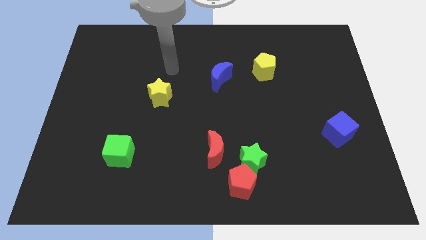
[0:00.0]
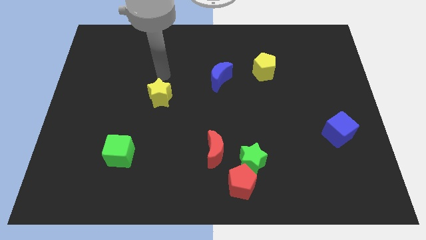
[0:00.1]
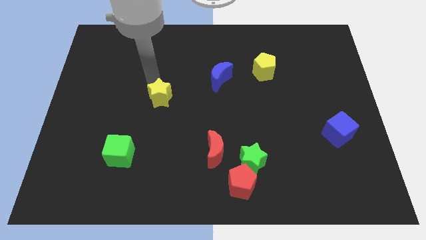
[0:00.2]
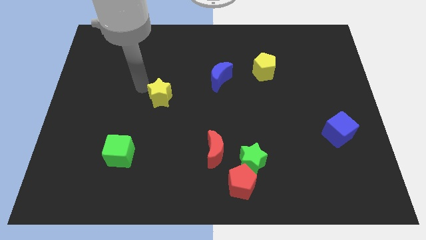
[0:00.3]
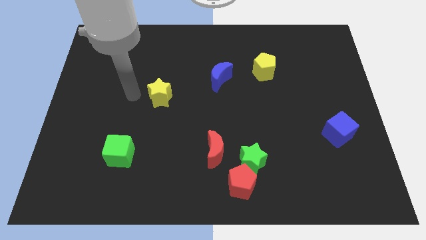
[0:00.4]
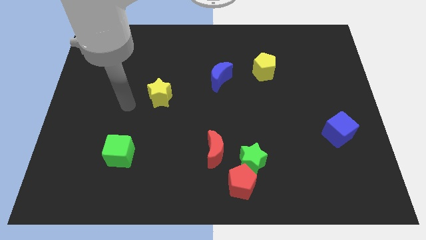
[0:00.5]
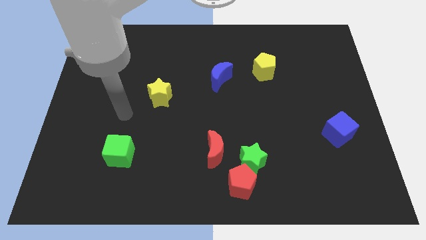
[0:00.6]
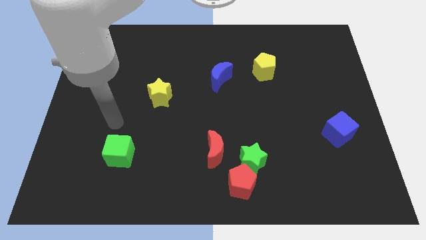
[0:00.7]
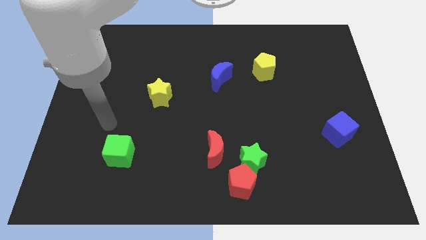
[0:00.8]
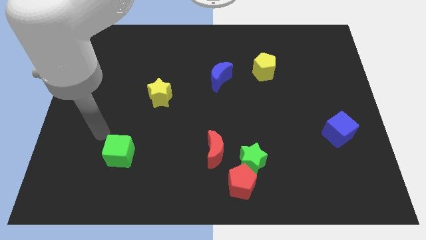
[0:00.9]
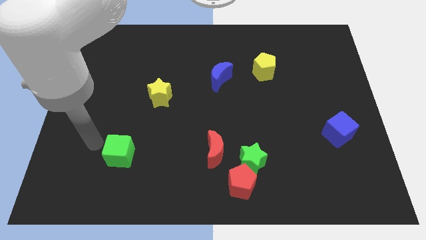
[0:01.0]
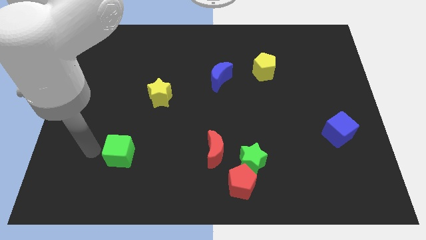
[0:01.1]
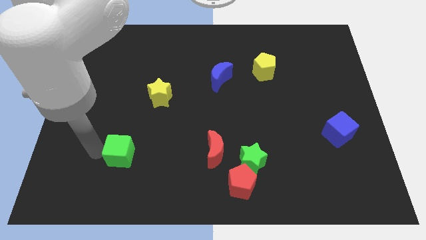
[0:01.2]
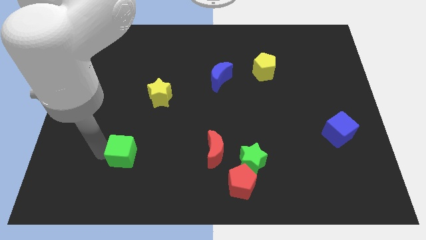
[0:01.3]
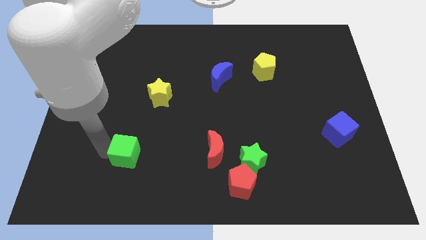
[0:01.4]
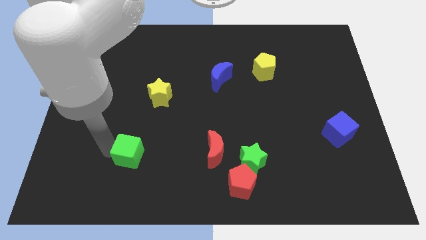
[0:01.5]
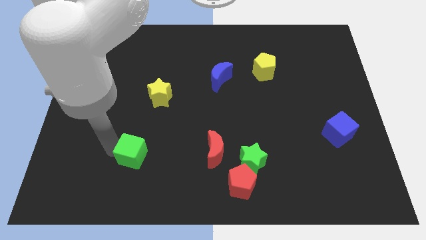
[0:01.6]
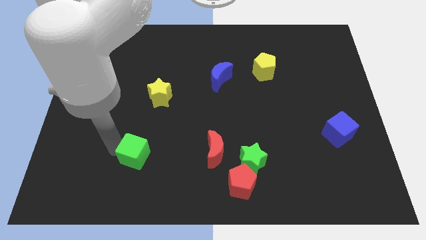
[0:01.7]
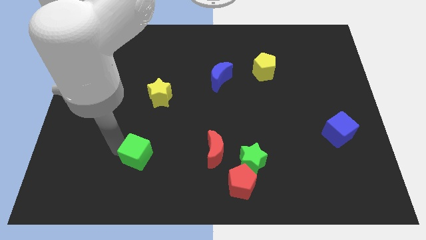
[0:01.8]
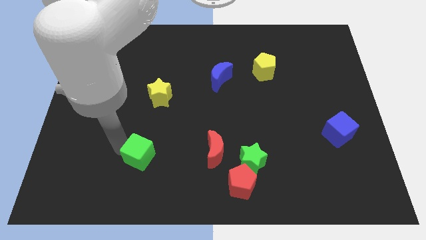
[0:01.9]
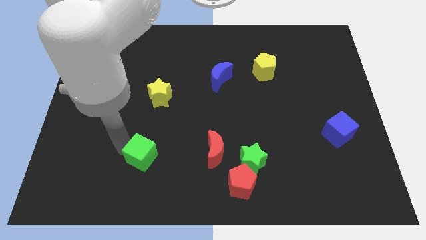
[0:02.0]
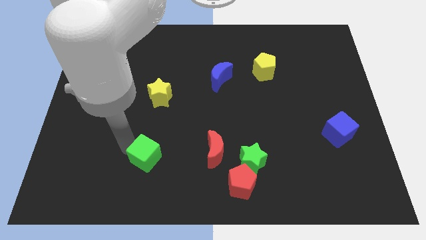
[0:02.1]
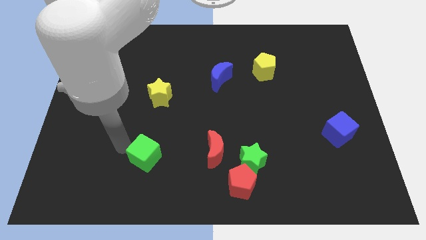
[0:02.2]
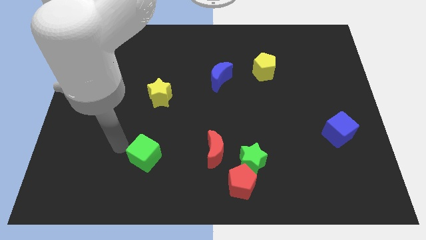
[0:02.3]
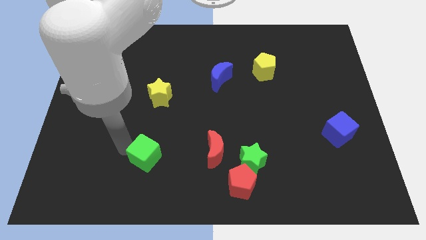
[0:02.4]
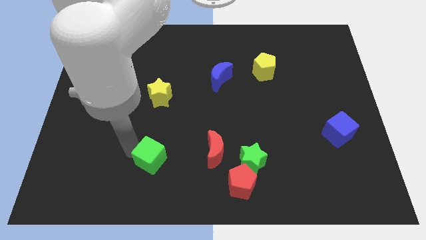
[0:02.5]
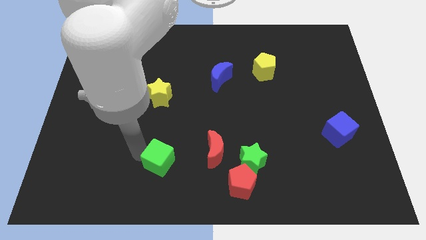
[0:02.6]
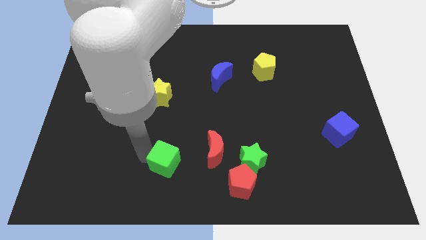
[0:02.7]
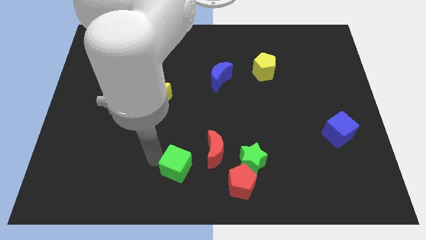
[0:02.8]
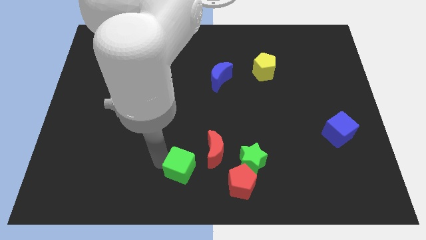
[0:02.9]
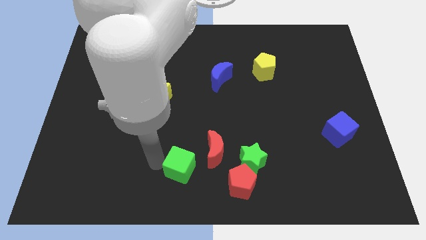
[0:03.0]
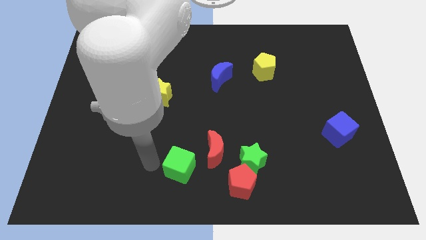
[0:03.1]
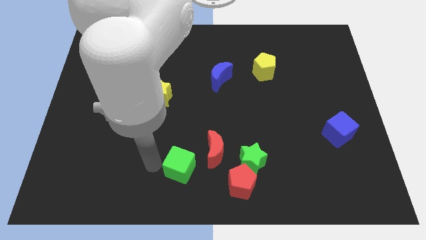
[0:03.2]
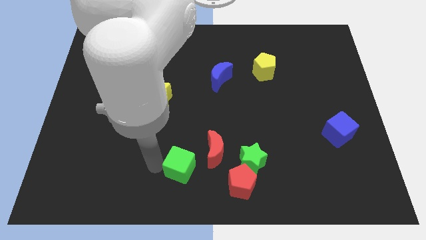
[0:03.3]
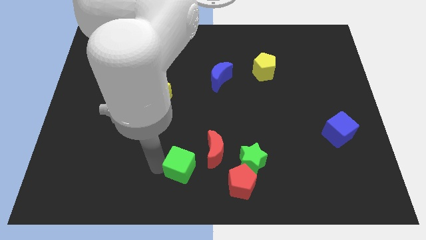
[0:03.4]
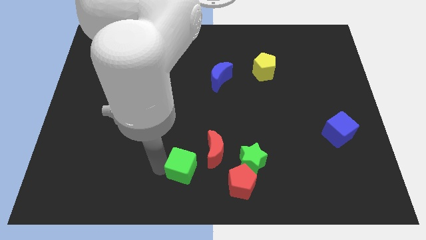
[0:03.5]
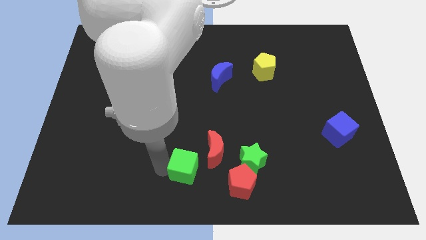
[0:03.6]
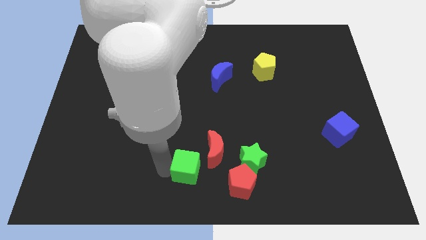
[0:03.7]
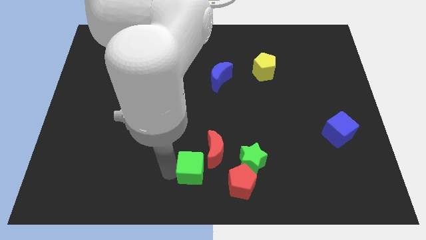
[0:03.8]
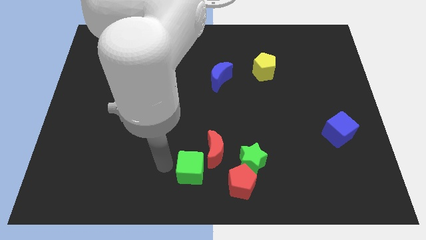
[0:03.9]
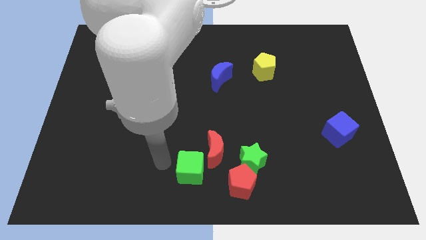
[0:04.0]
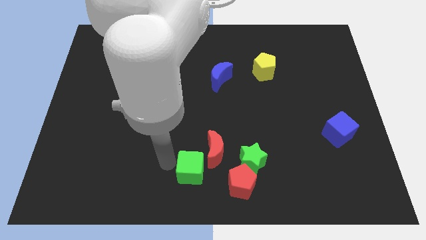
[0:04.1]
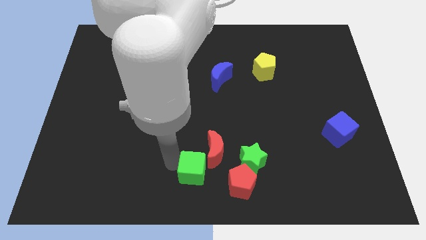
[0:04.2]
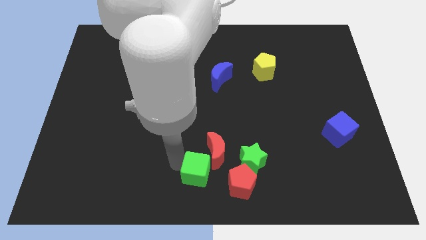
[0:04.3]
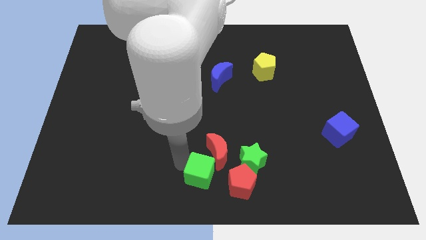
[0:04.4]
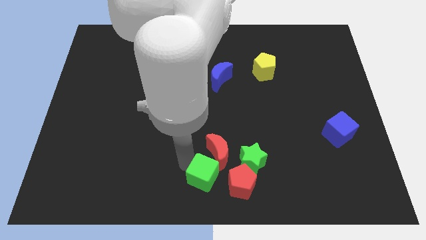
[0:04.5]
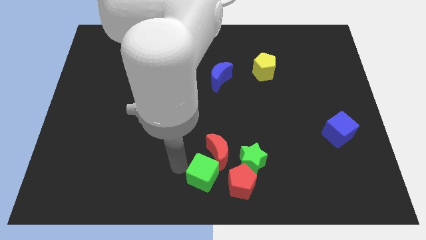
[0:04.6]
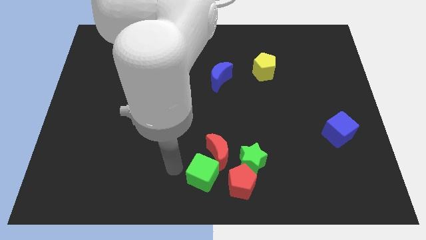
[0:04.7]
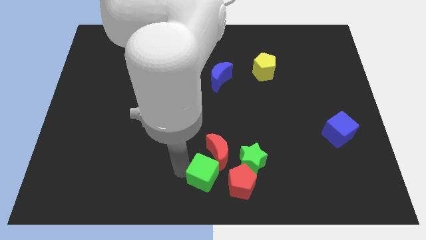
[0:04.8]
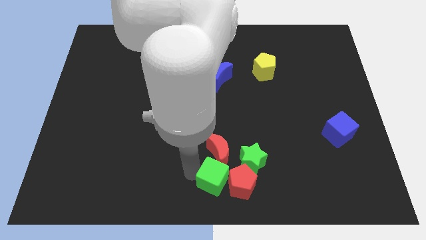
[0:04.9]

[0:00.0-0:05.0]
push the green cube towards the red pentagon

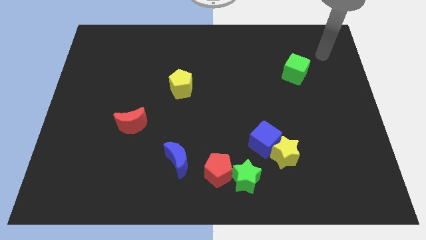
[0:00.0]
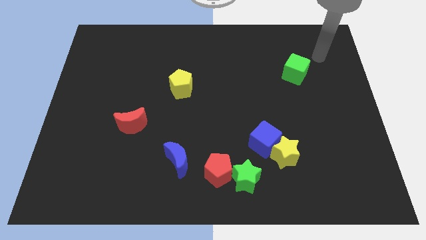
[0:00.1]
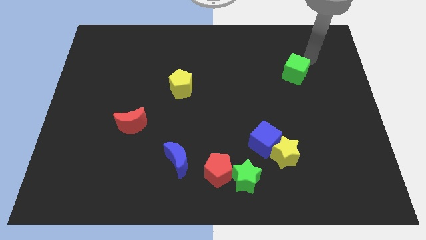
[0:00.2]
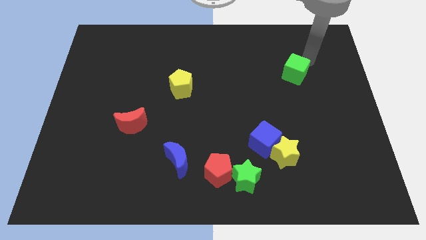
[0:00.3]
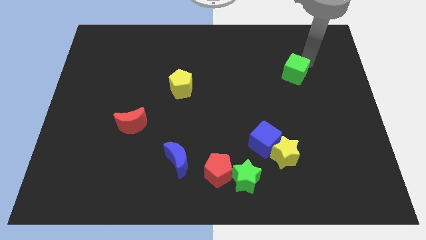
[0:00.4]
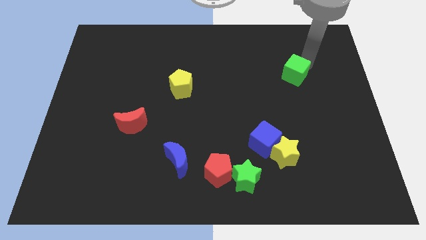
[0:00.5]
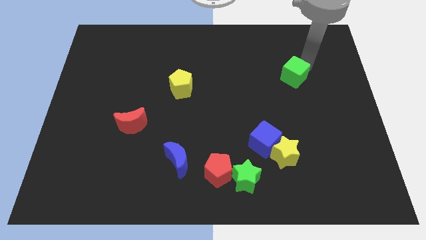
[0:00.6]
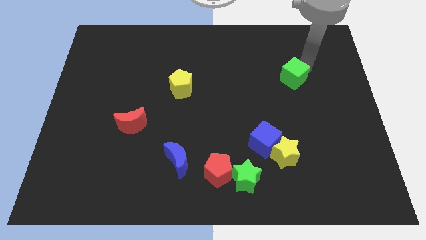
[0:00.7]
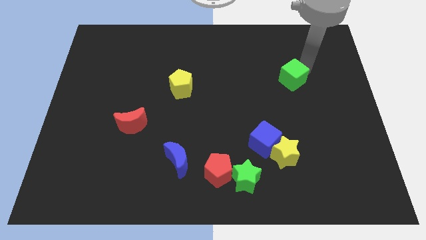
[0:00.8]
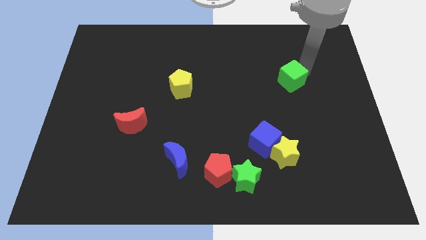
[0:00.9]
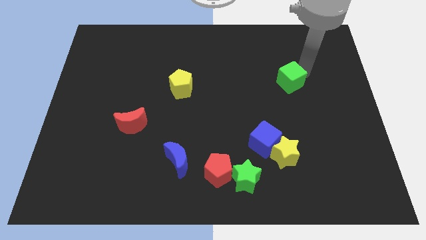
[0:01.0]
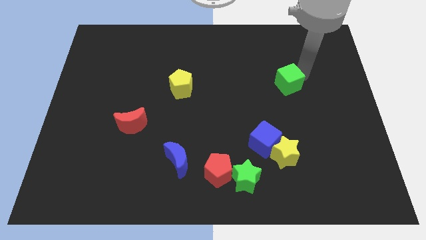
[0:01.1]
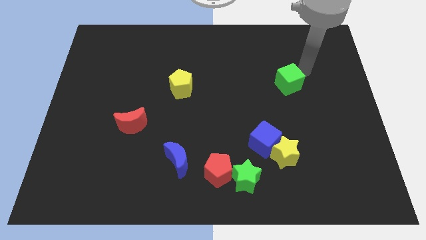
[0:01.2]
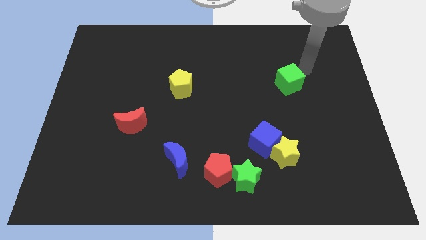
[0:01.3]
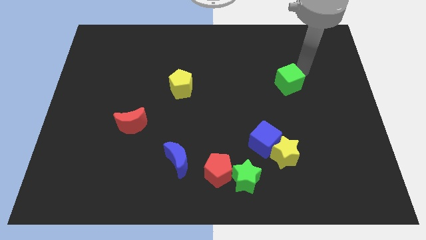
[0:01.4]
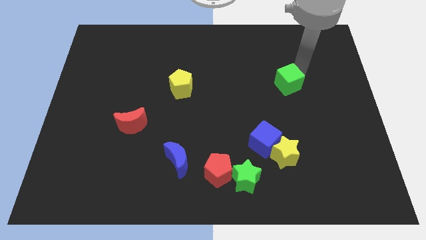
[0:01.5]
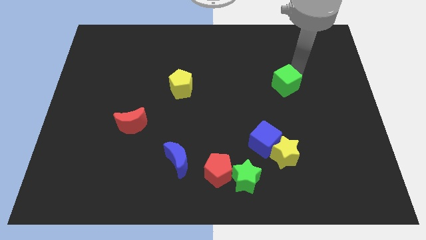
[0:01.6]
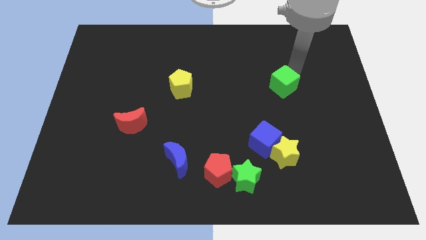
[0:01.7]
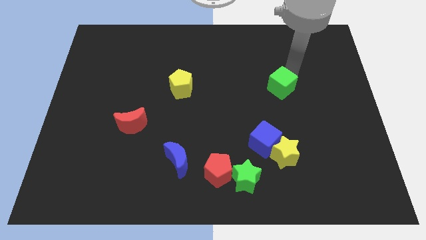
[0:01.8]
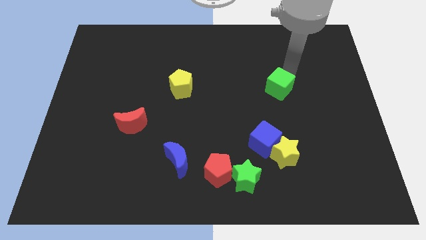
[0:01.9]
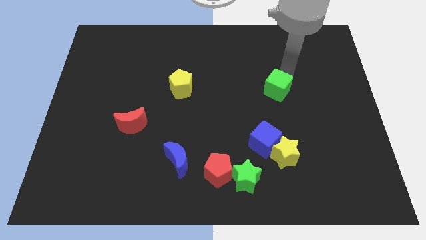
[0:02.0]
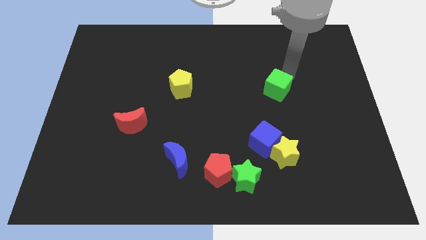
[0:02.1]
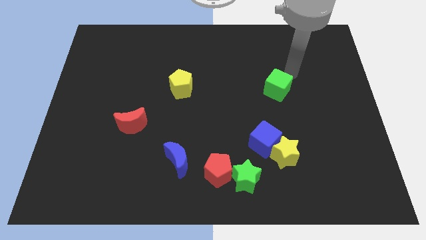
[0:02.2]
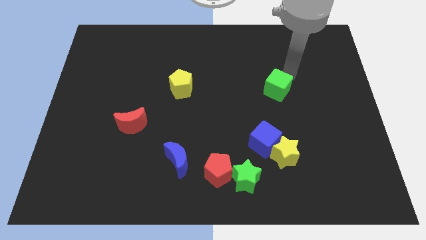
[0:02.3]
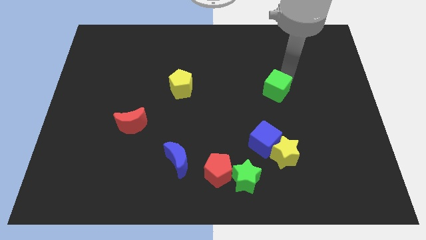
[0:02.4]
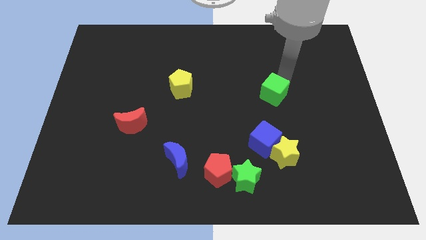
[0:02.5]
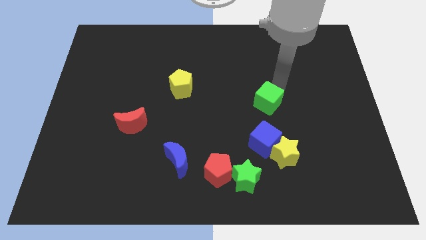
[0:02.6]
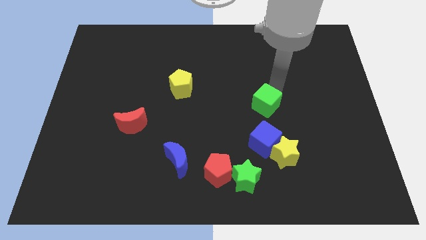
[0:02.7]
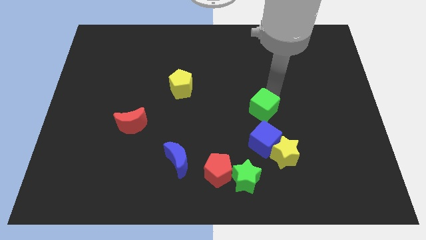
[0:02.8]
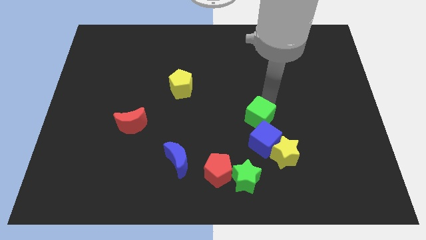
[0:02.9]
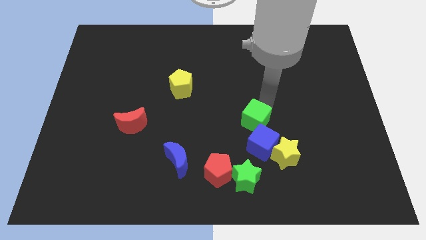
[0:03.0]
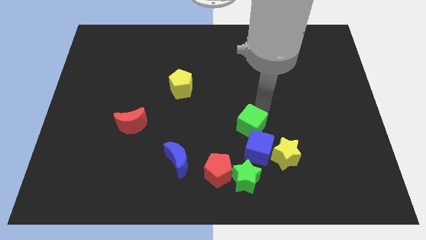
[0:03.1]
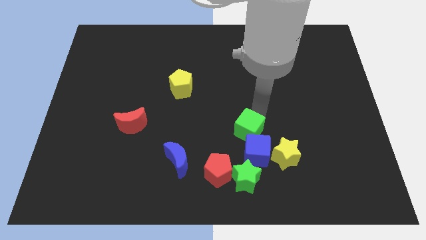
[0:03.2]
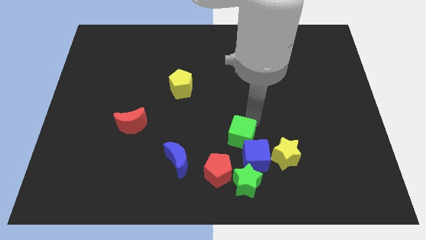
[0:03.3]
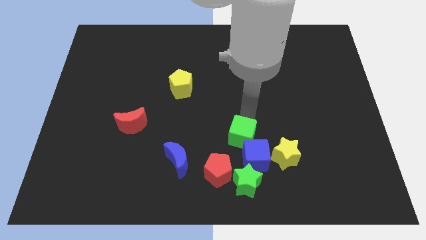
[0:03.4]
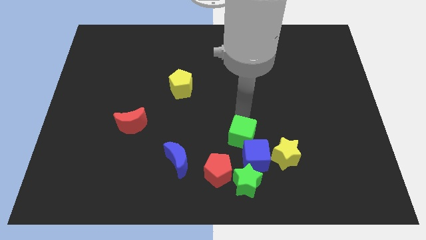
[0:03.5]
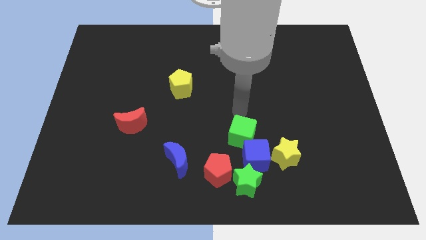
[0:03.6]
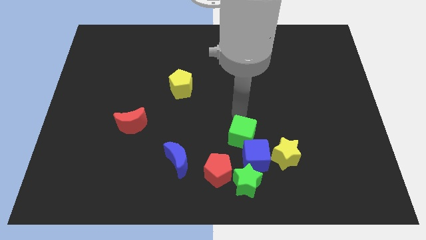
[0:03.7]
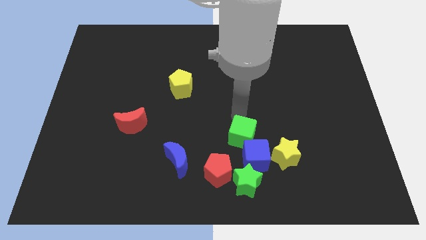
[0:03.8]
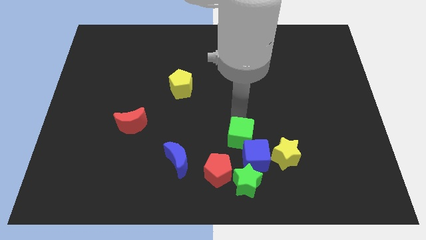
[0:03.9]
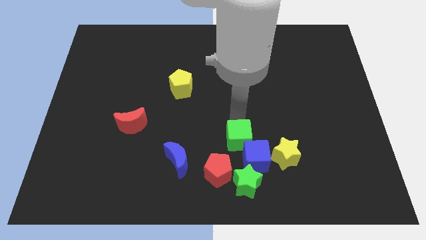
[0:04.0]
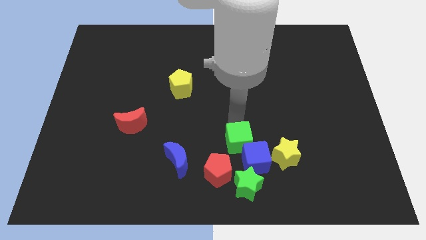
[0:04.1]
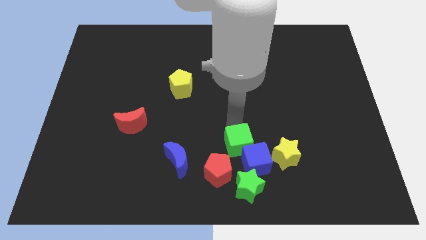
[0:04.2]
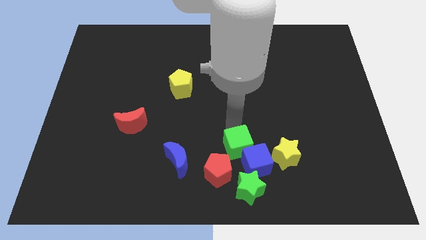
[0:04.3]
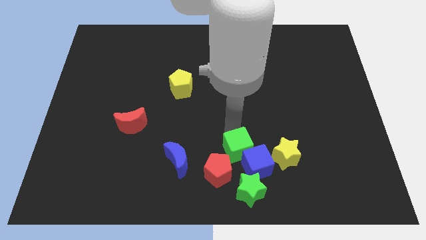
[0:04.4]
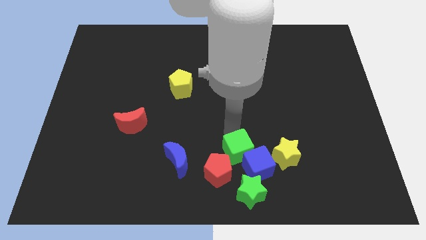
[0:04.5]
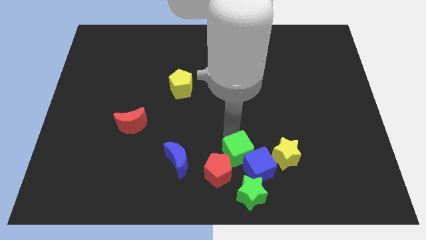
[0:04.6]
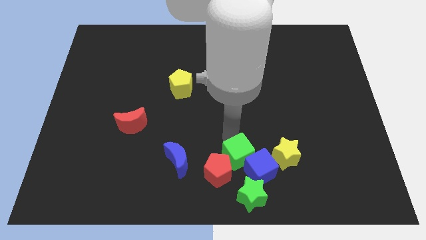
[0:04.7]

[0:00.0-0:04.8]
put the green cube towards the red pentagon
